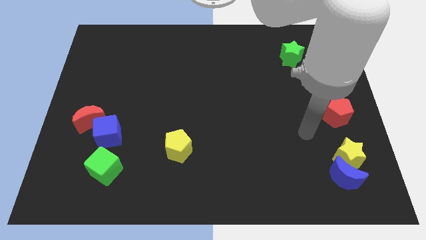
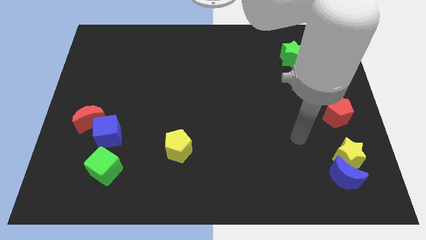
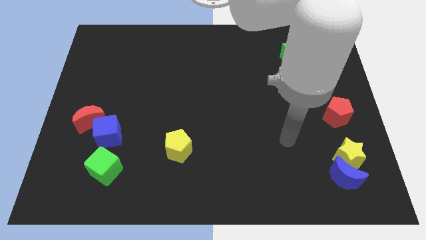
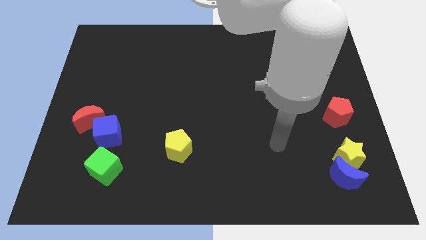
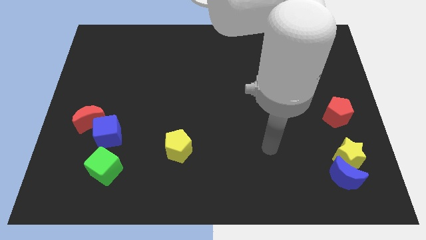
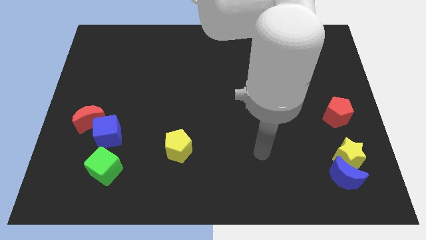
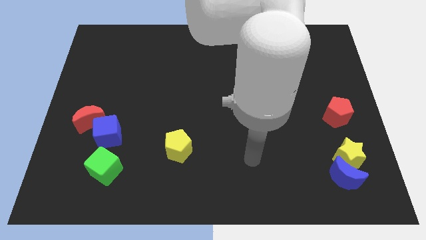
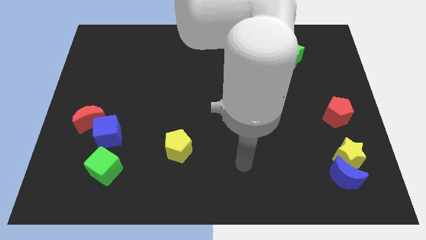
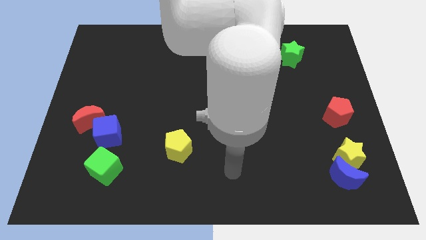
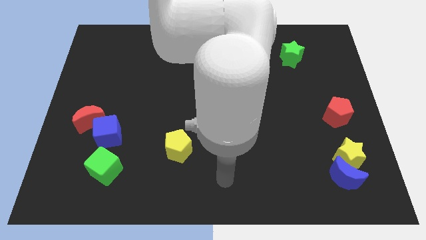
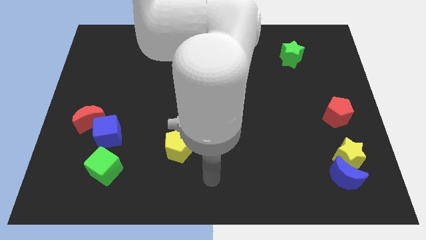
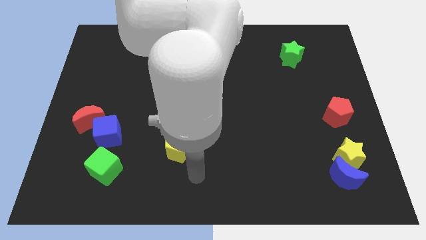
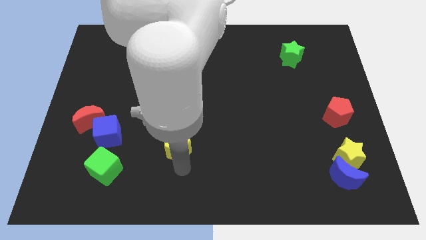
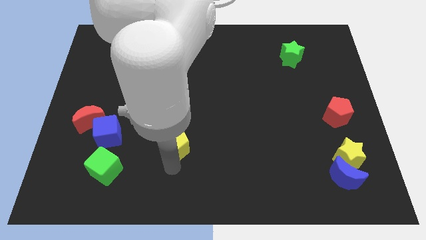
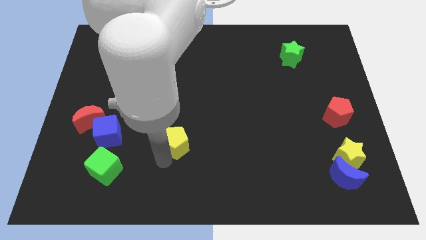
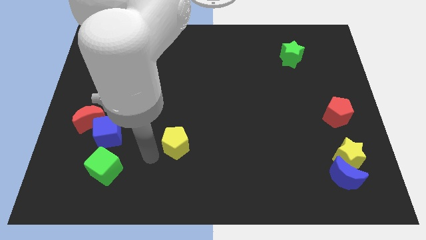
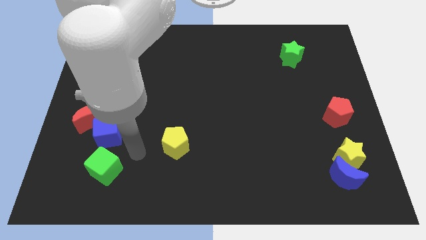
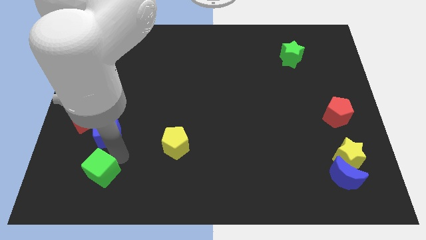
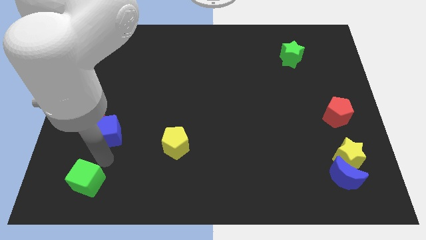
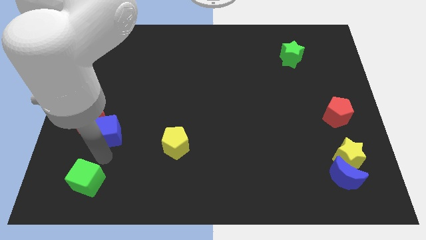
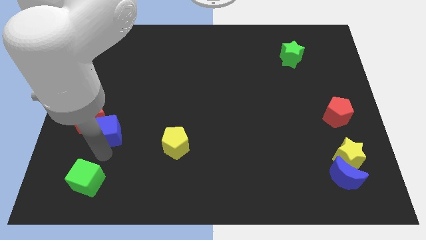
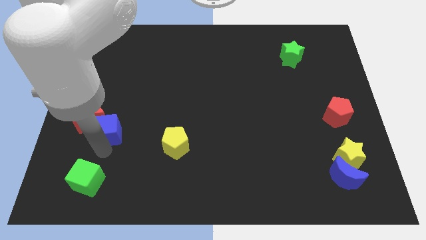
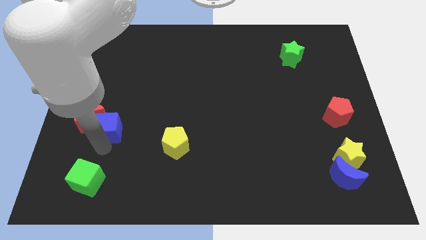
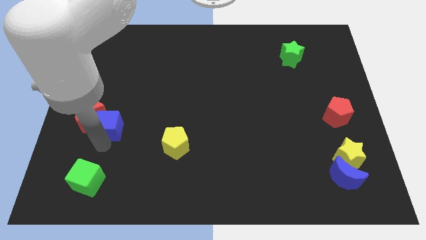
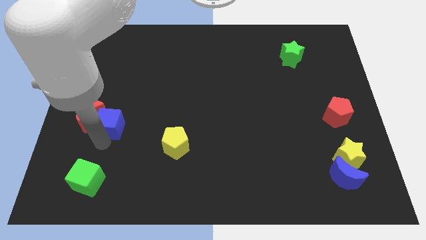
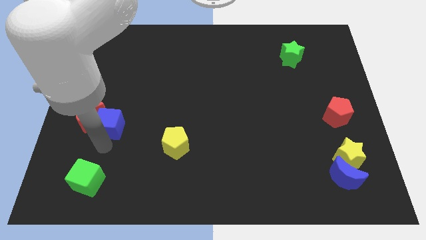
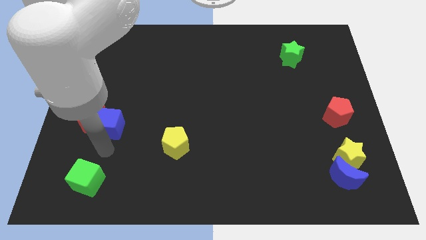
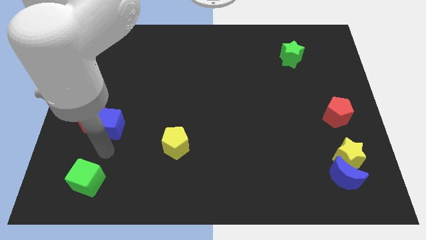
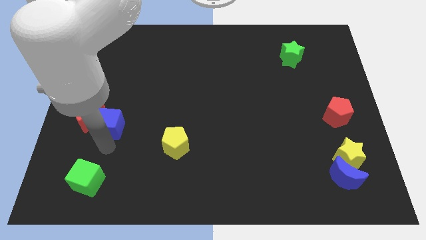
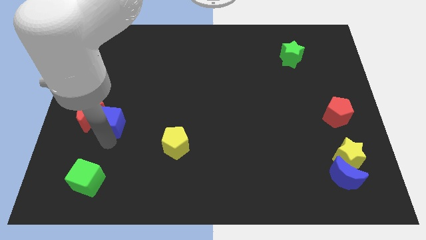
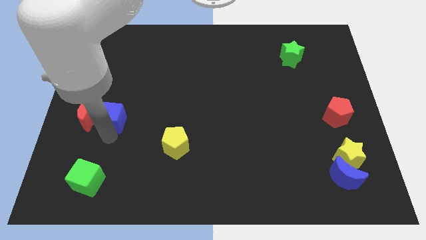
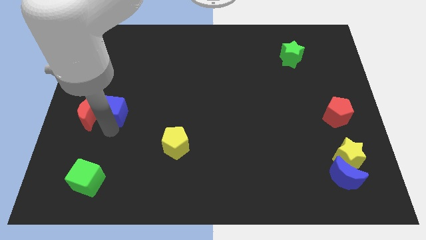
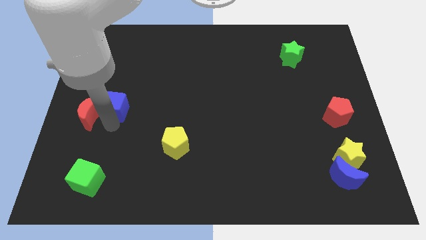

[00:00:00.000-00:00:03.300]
push the blue cube slightly upwards

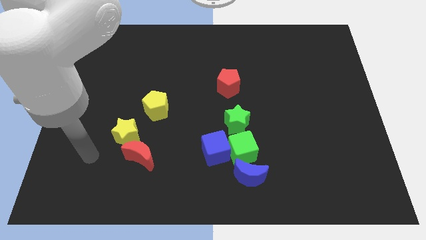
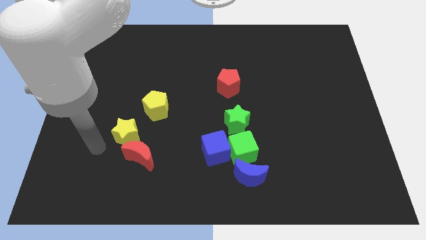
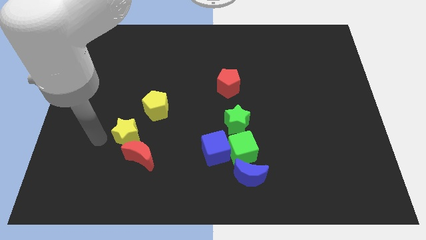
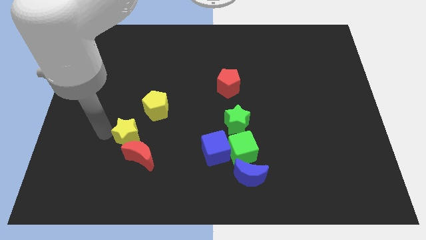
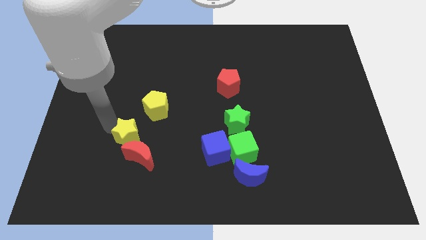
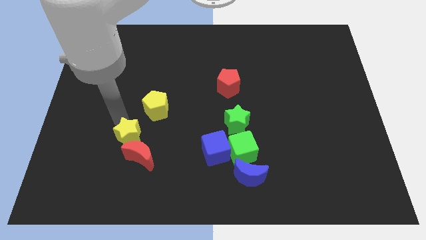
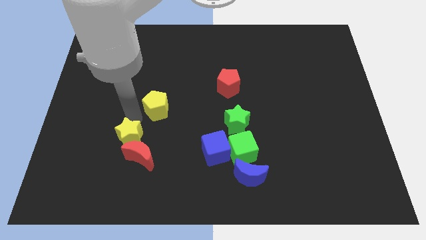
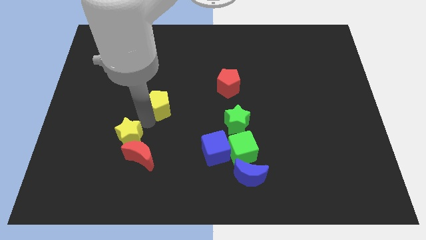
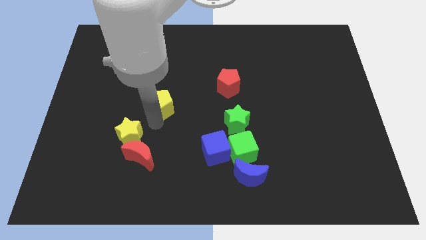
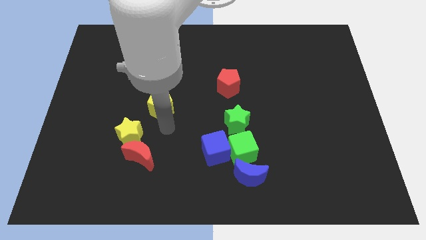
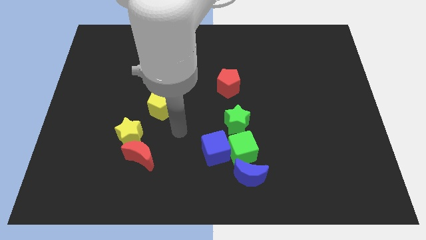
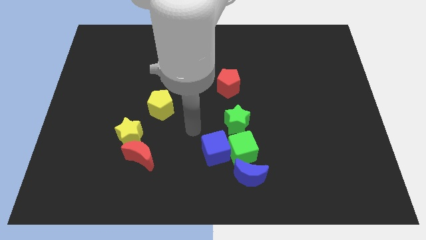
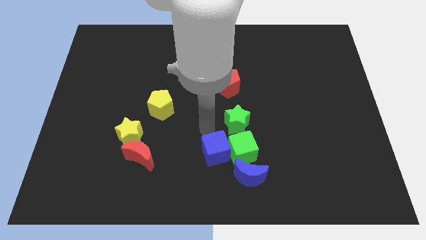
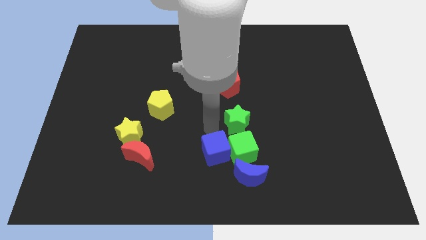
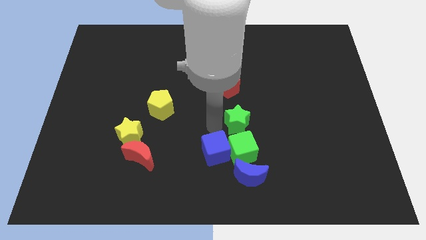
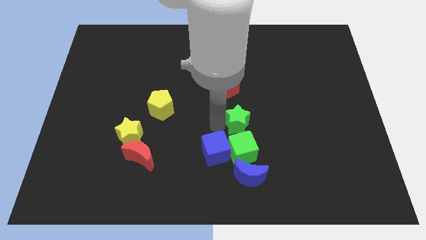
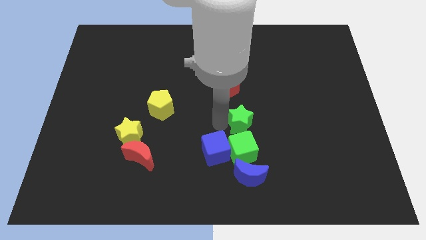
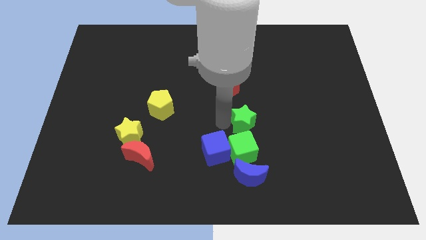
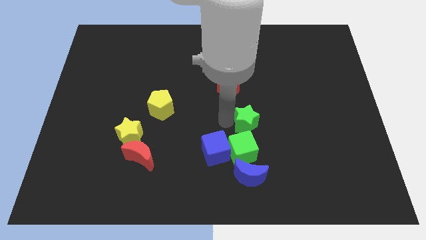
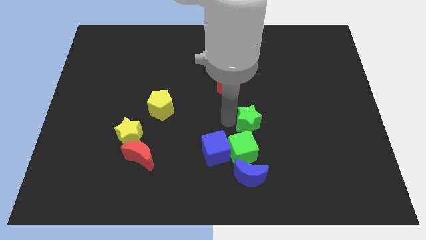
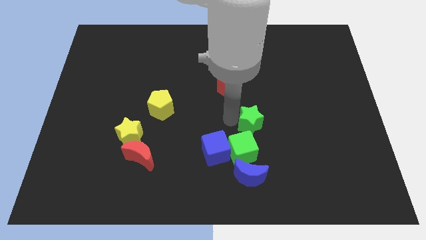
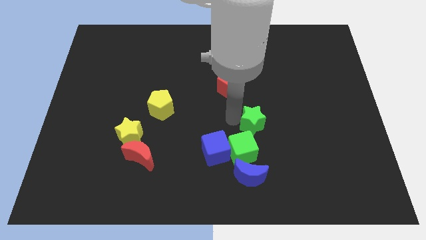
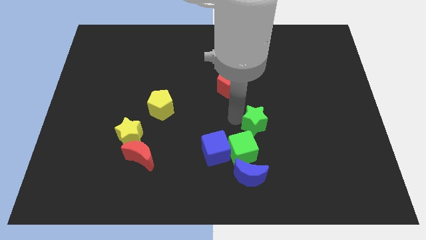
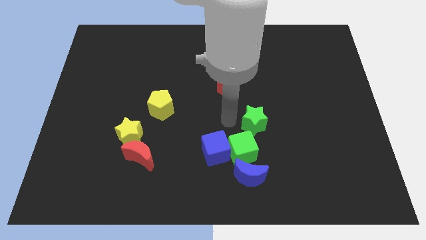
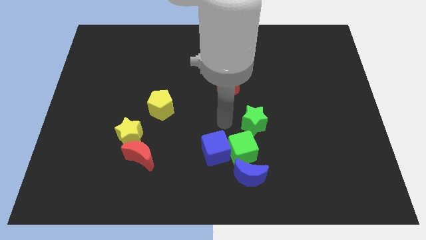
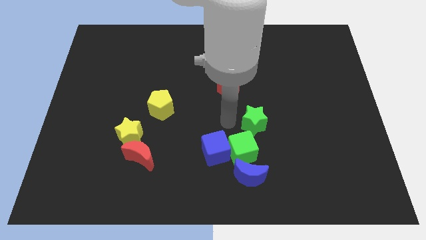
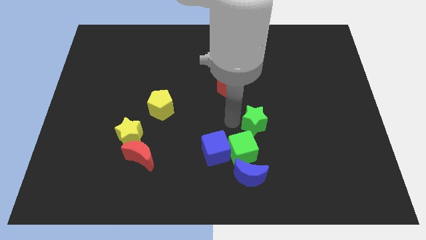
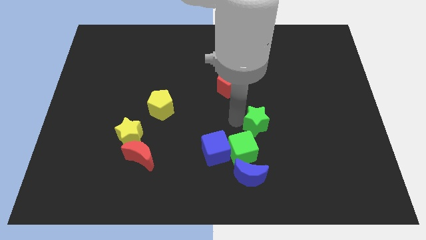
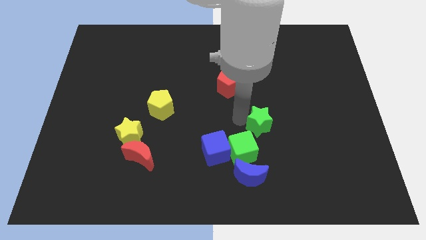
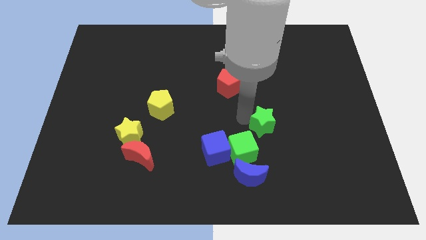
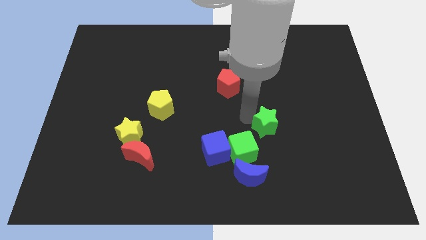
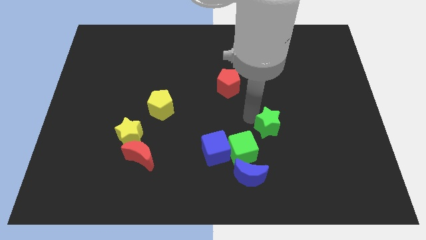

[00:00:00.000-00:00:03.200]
slightly slide the green star right

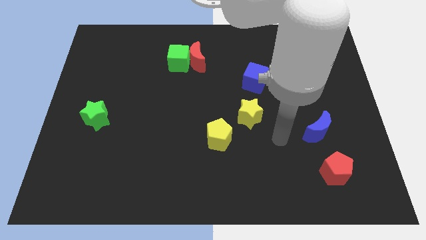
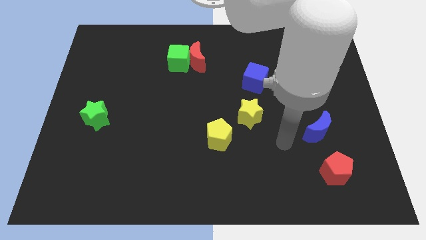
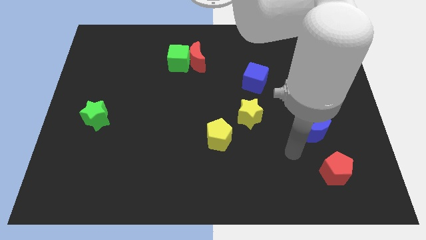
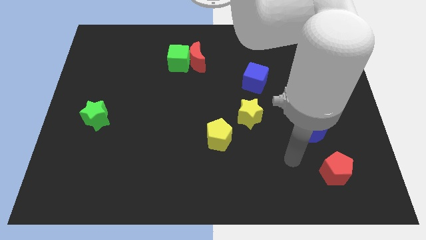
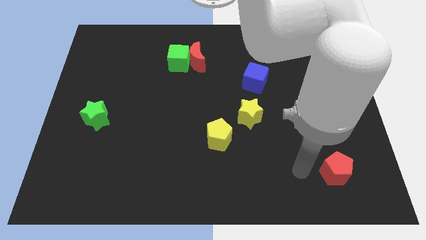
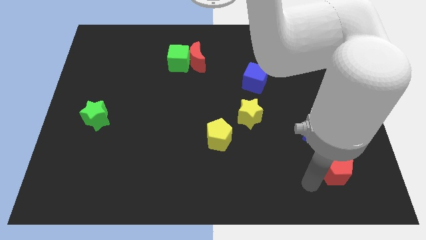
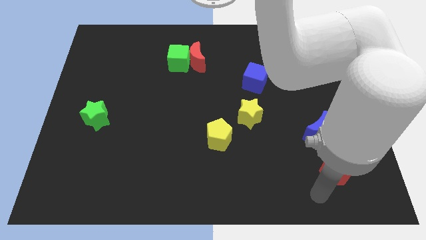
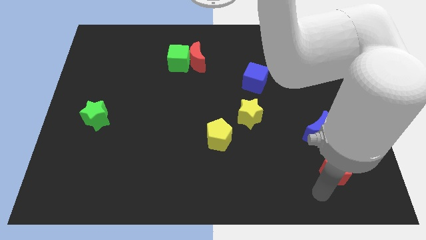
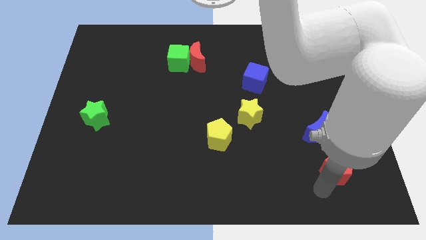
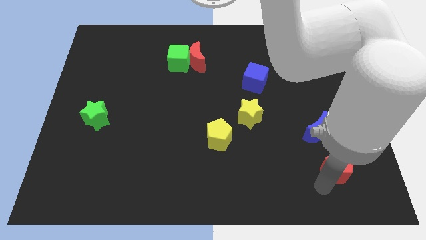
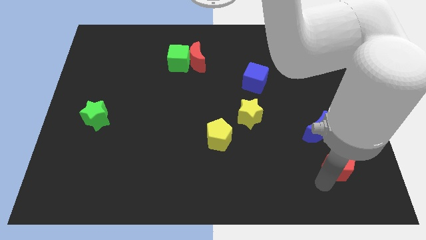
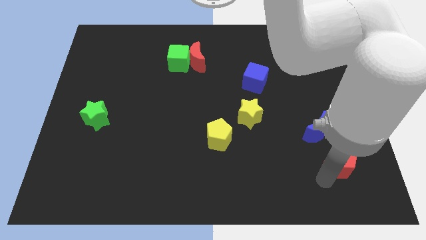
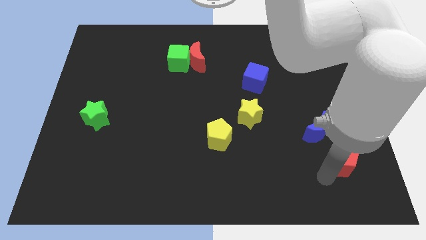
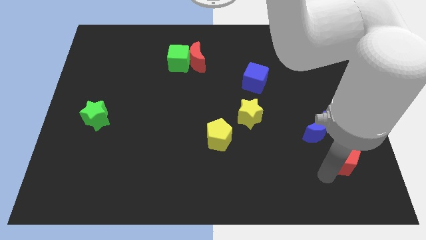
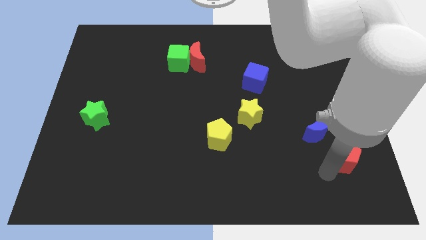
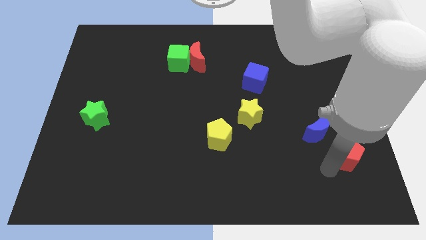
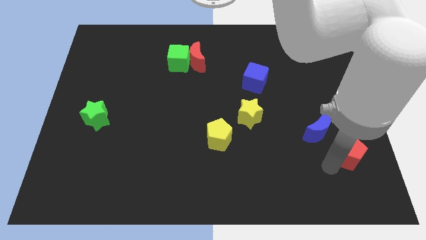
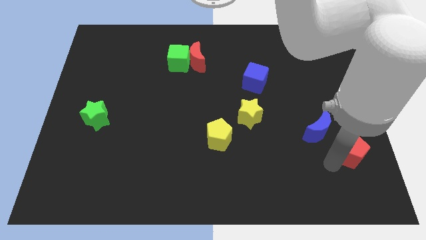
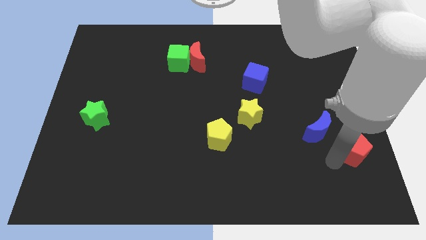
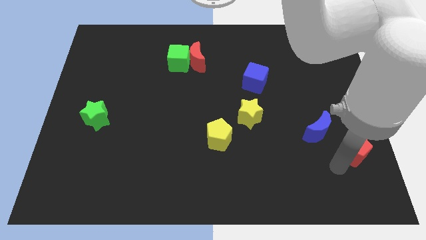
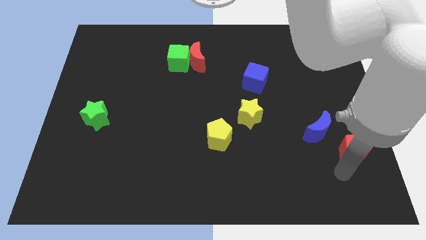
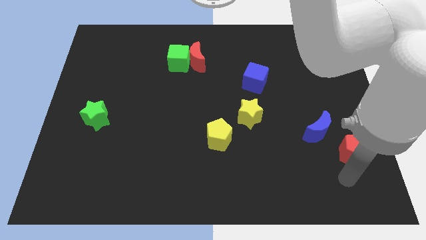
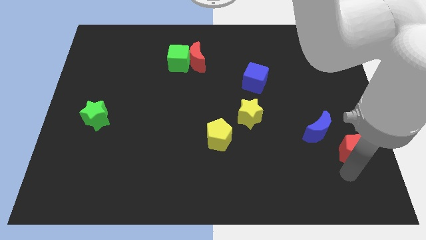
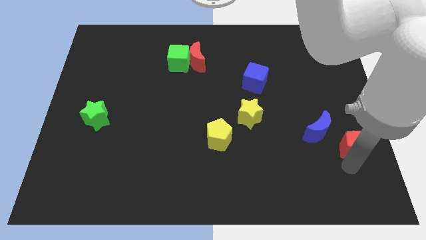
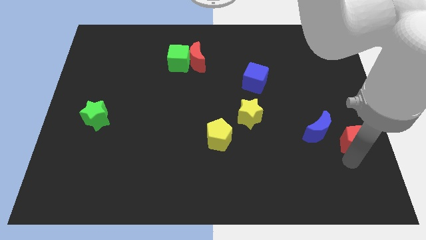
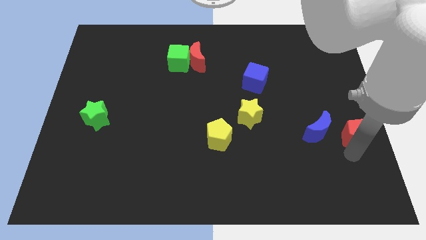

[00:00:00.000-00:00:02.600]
push the red pentagon up a little bit
